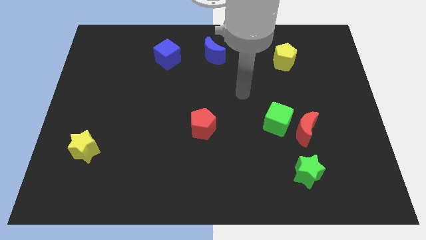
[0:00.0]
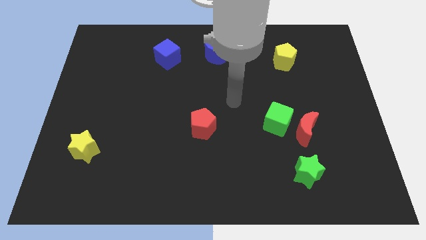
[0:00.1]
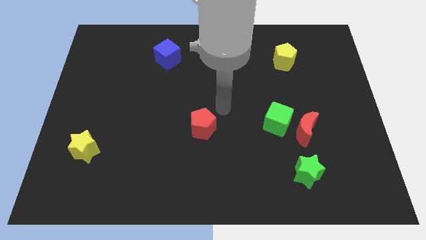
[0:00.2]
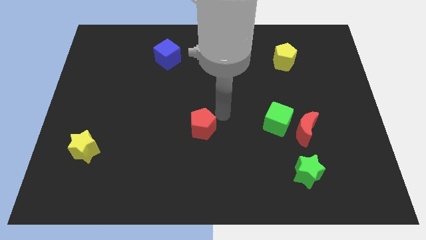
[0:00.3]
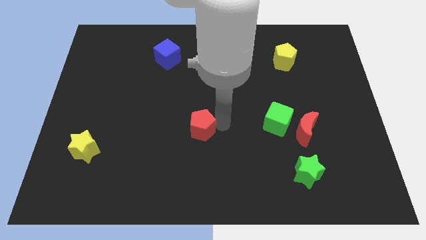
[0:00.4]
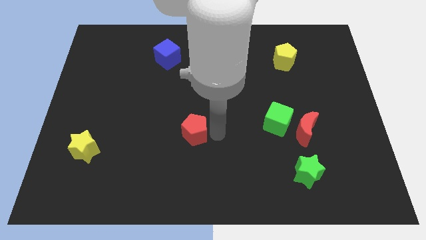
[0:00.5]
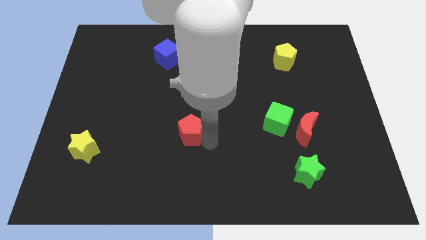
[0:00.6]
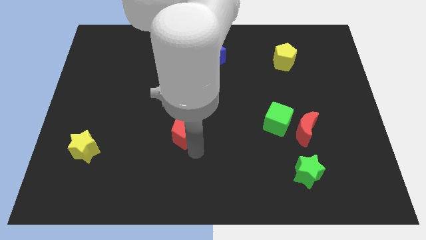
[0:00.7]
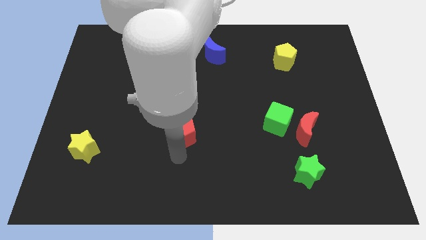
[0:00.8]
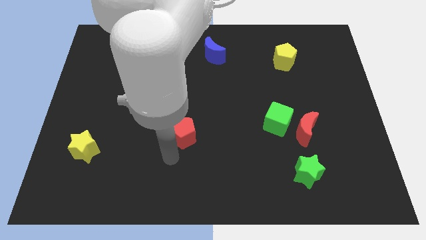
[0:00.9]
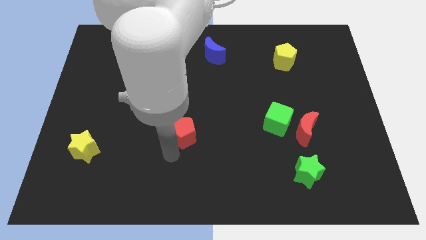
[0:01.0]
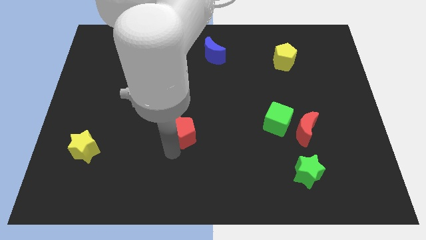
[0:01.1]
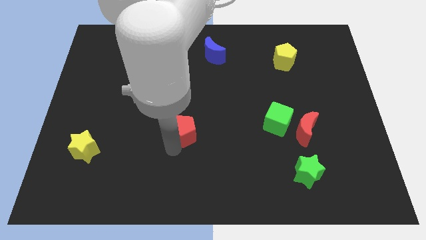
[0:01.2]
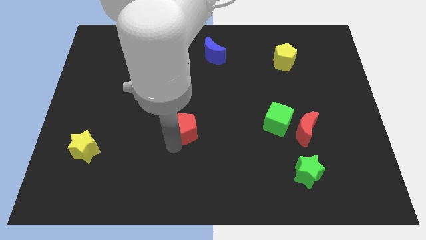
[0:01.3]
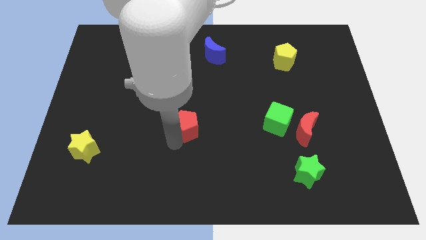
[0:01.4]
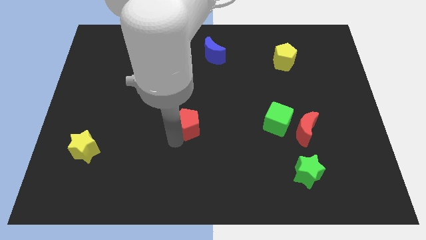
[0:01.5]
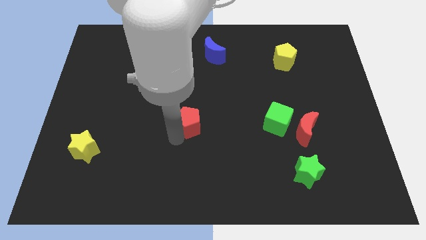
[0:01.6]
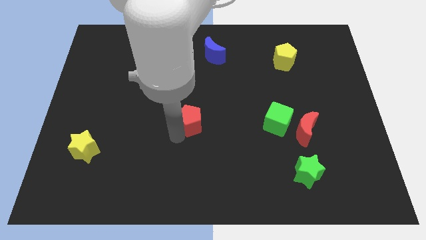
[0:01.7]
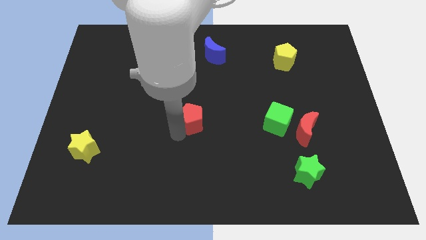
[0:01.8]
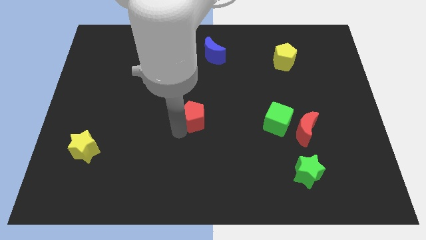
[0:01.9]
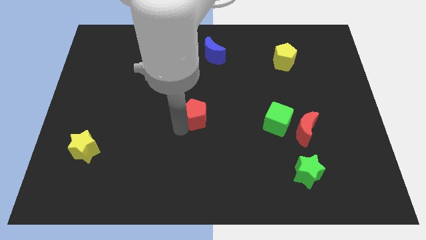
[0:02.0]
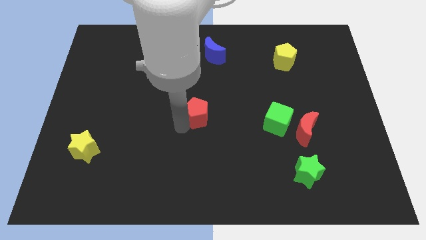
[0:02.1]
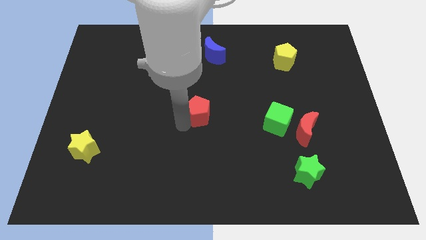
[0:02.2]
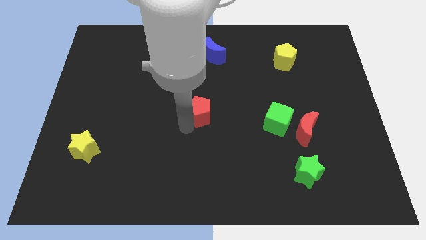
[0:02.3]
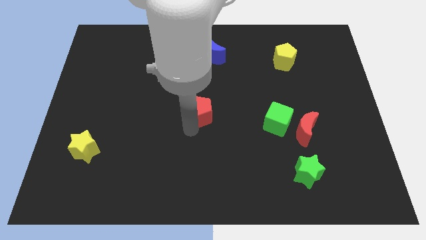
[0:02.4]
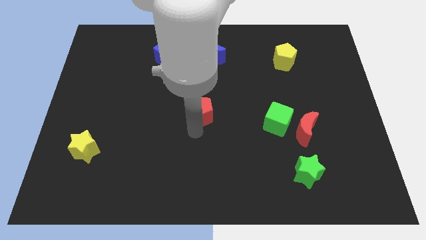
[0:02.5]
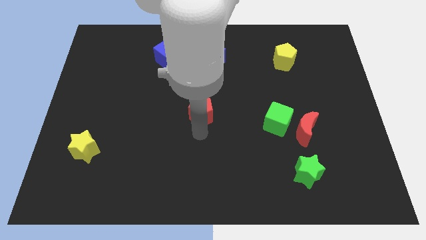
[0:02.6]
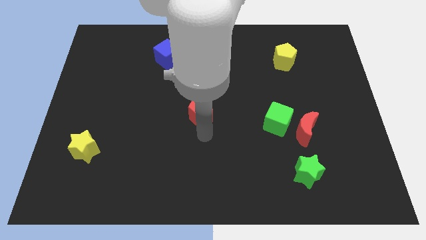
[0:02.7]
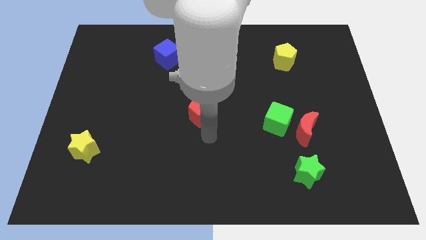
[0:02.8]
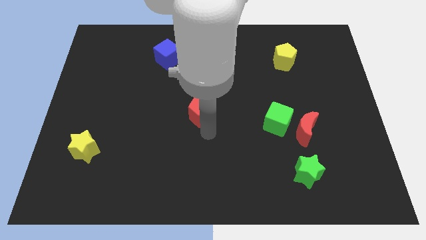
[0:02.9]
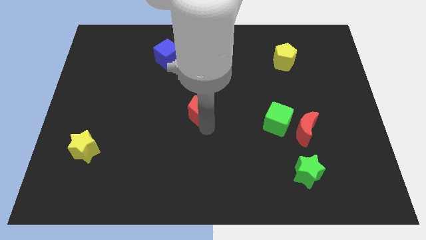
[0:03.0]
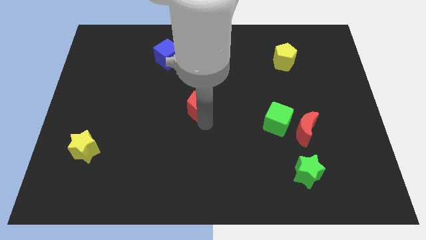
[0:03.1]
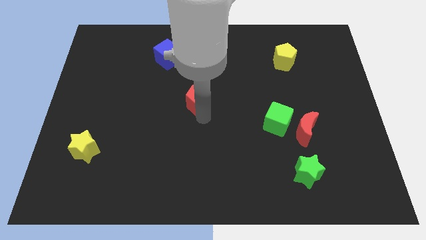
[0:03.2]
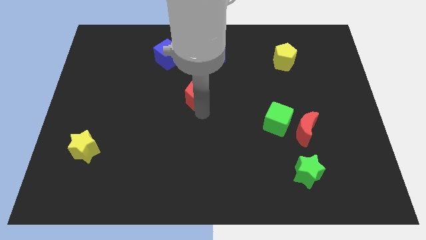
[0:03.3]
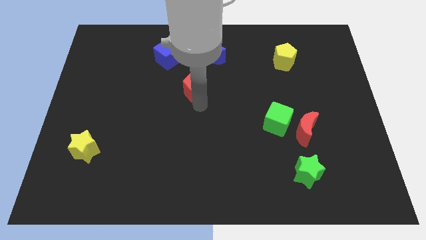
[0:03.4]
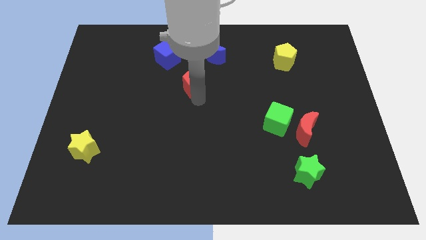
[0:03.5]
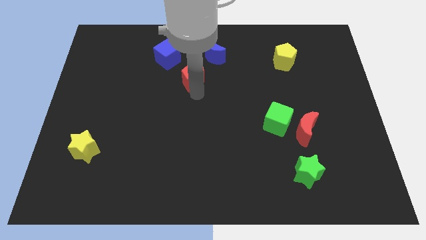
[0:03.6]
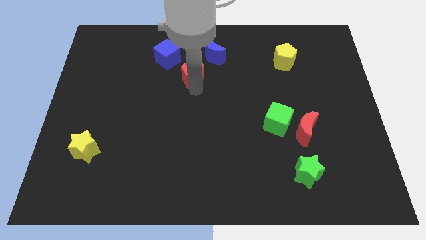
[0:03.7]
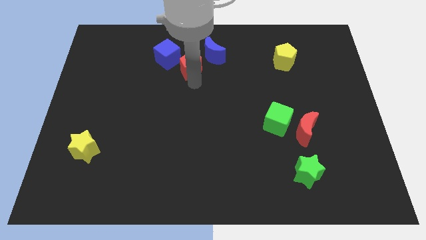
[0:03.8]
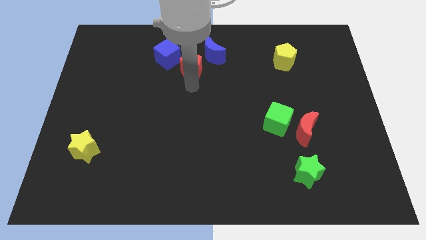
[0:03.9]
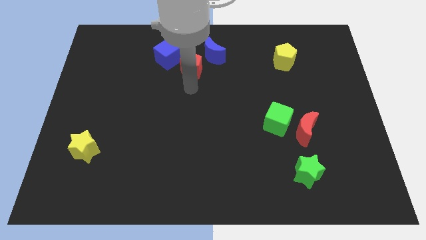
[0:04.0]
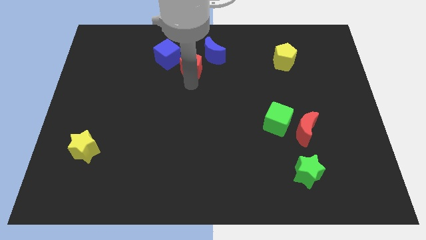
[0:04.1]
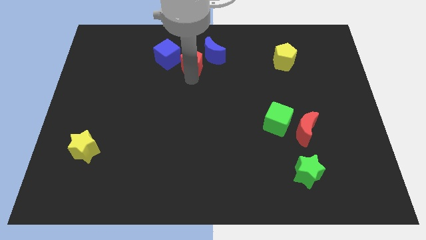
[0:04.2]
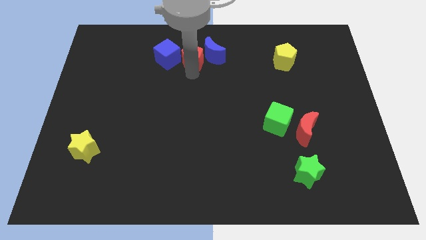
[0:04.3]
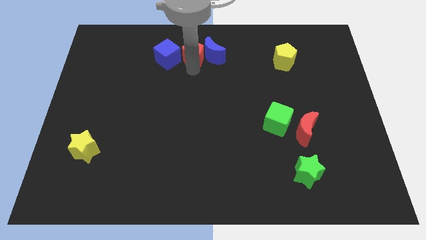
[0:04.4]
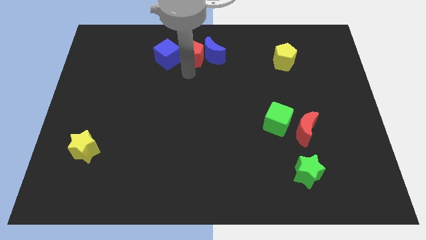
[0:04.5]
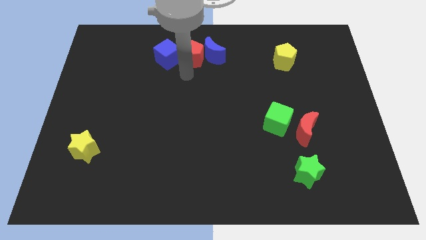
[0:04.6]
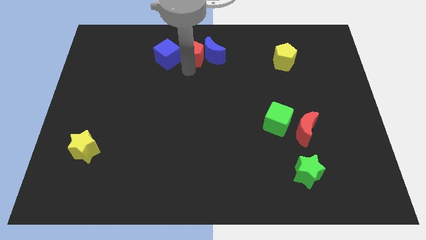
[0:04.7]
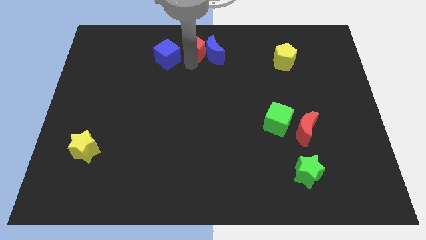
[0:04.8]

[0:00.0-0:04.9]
move the red pentagon to the top

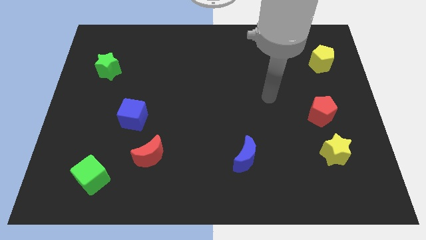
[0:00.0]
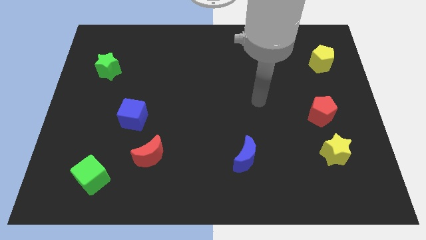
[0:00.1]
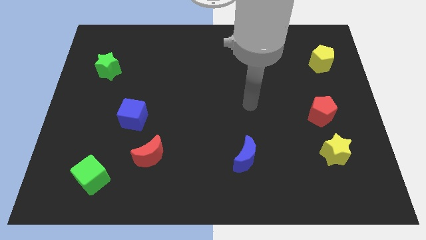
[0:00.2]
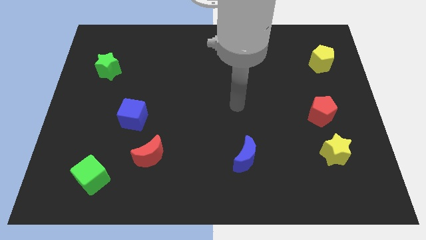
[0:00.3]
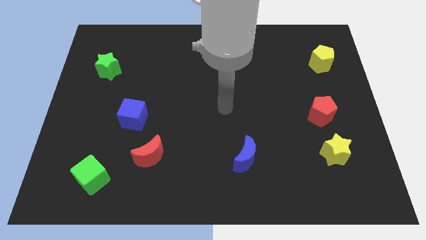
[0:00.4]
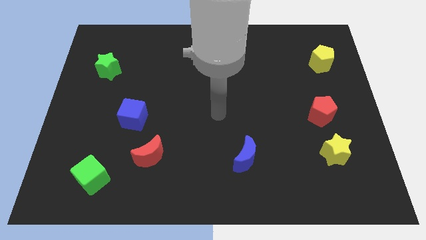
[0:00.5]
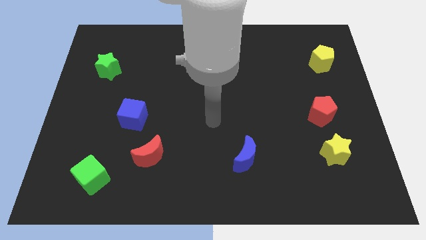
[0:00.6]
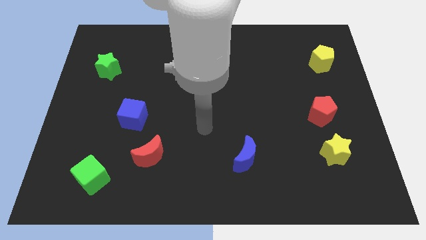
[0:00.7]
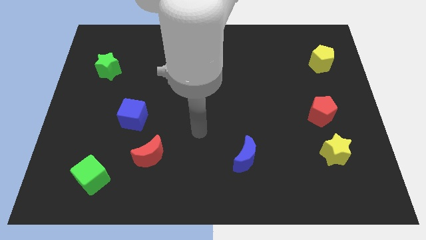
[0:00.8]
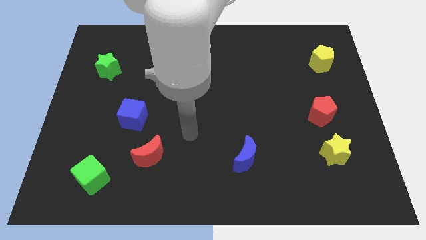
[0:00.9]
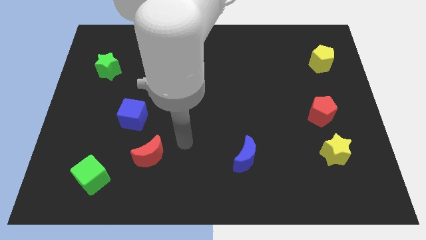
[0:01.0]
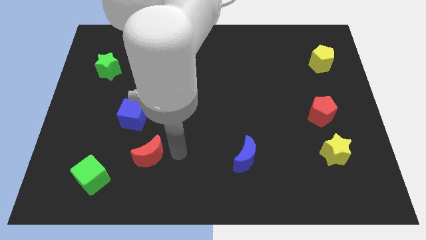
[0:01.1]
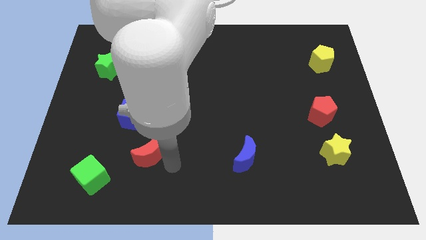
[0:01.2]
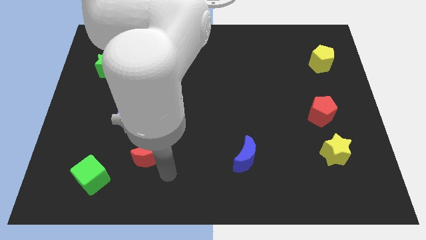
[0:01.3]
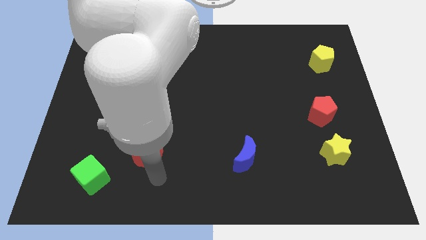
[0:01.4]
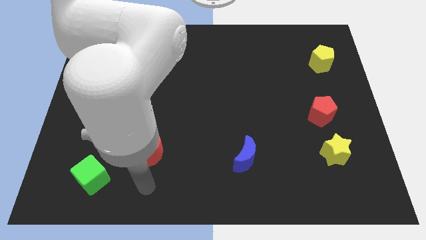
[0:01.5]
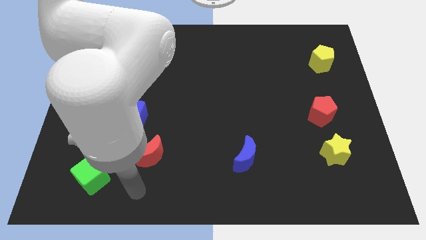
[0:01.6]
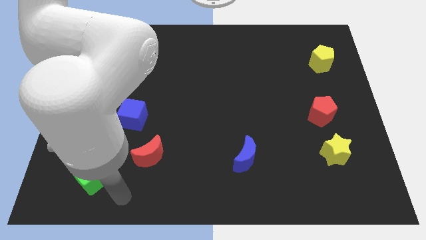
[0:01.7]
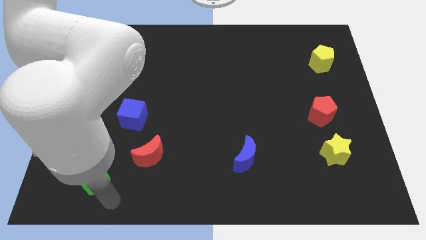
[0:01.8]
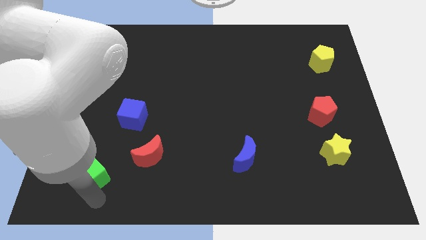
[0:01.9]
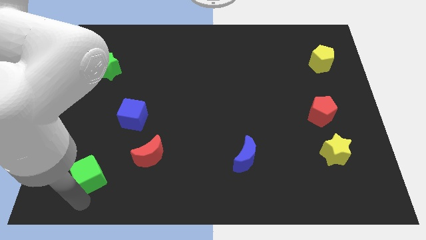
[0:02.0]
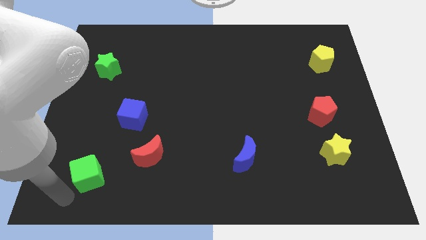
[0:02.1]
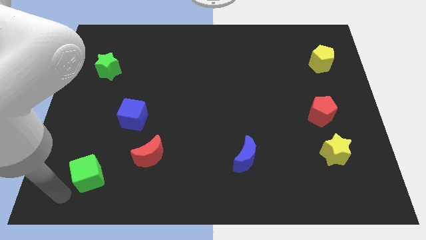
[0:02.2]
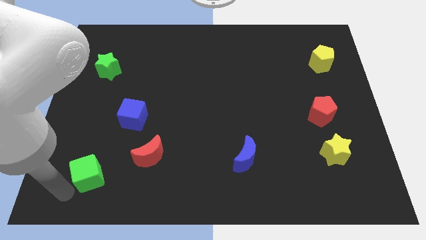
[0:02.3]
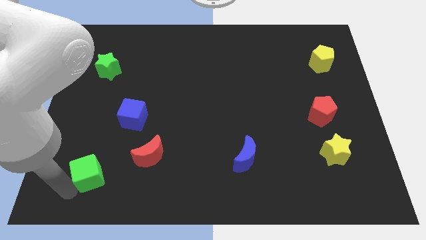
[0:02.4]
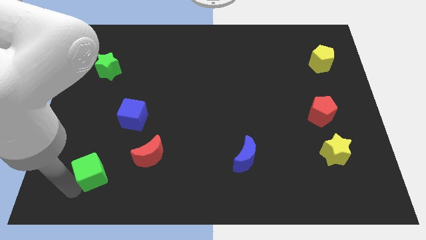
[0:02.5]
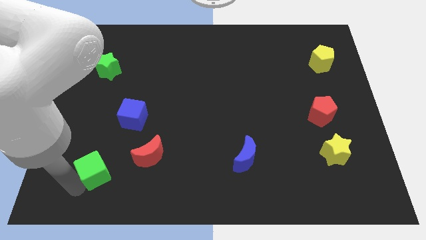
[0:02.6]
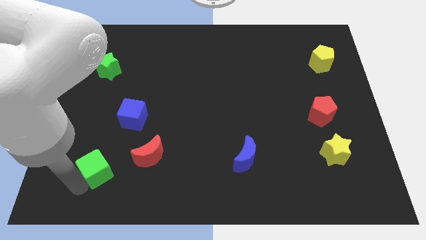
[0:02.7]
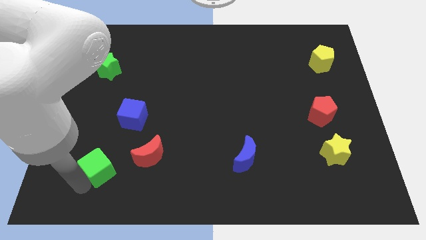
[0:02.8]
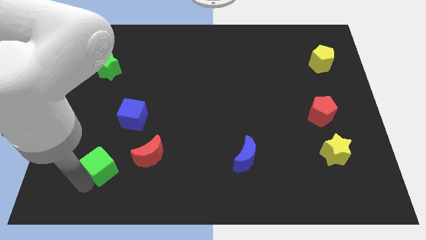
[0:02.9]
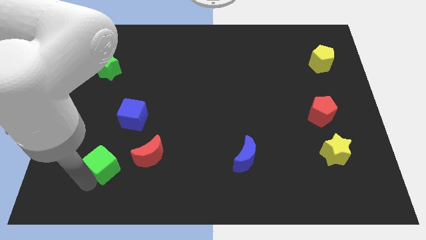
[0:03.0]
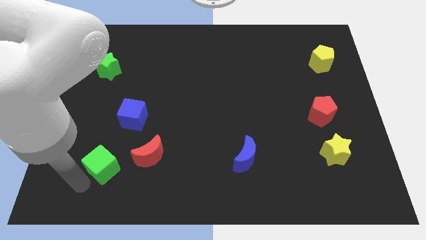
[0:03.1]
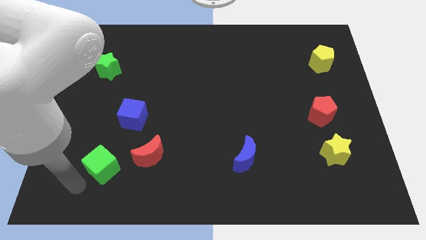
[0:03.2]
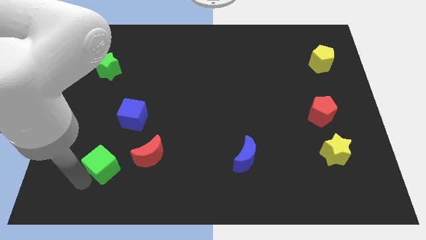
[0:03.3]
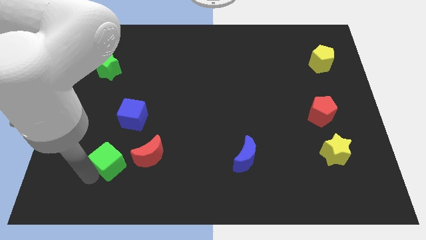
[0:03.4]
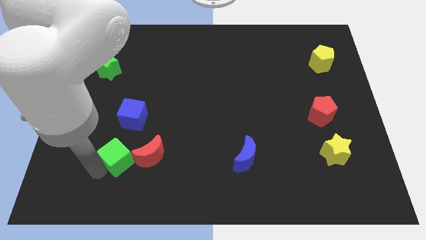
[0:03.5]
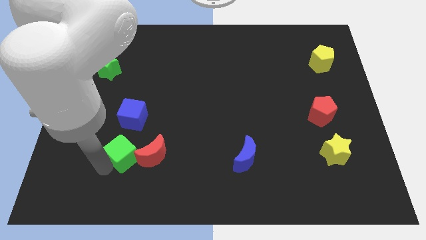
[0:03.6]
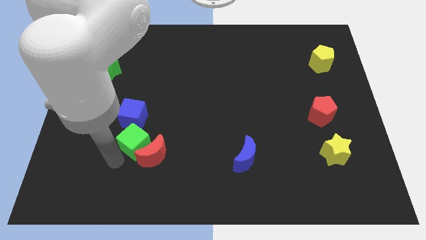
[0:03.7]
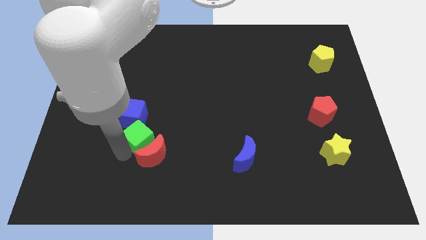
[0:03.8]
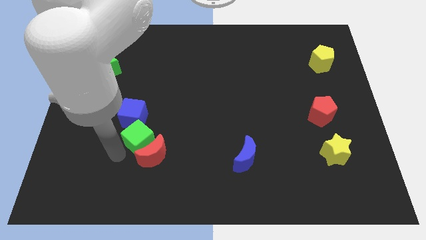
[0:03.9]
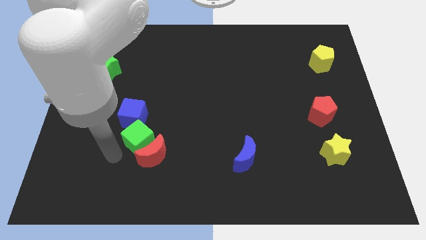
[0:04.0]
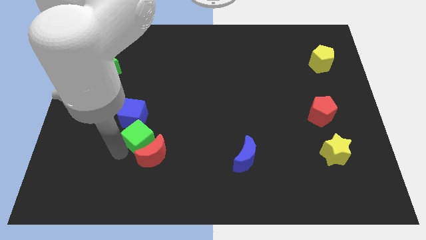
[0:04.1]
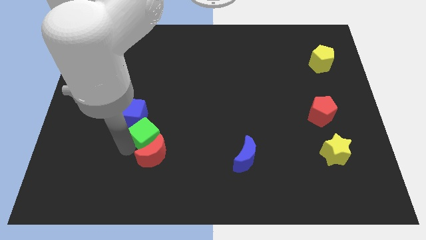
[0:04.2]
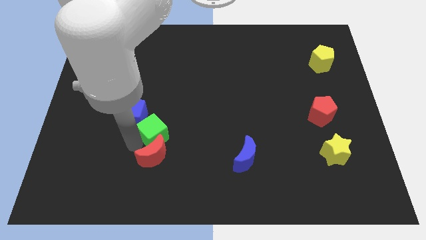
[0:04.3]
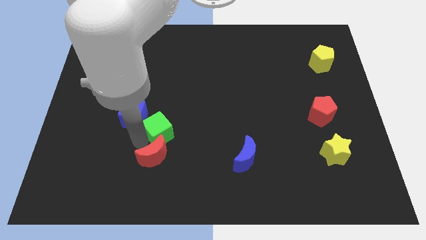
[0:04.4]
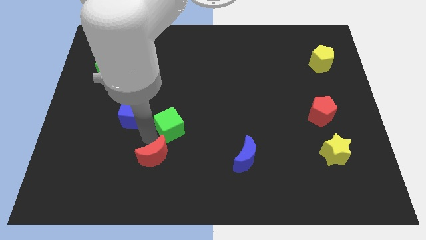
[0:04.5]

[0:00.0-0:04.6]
move the green cube to the center
